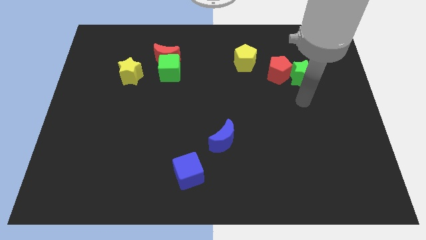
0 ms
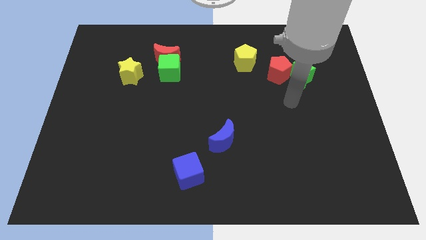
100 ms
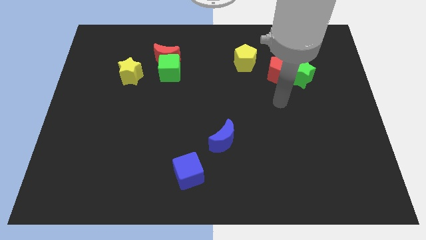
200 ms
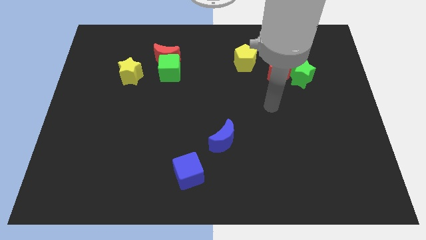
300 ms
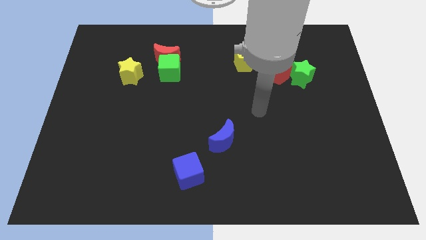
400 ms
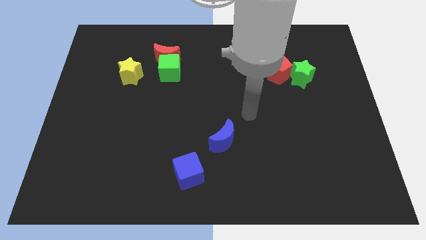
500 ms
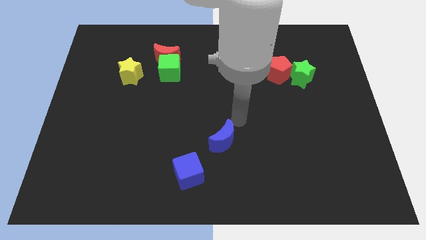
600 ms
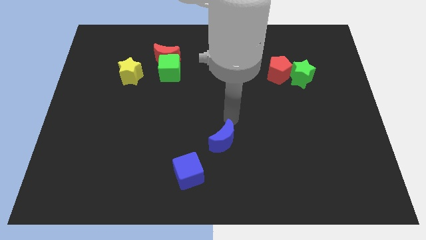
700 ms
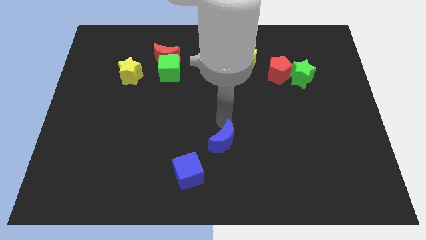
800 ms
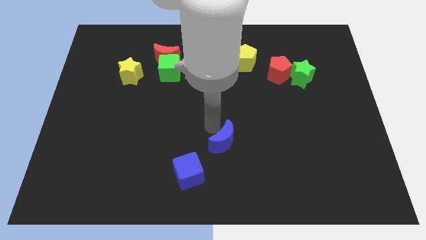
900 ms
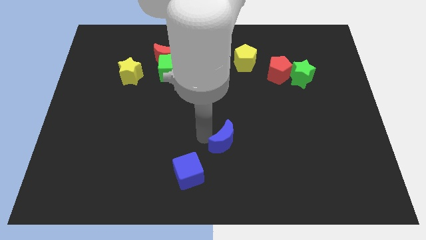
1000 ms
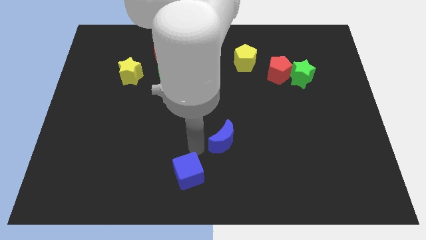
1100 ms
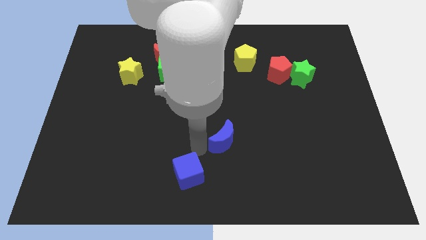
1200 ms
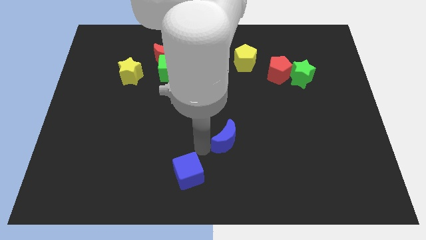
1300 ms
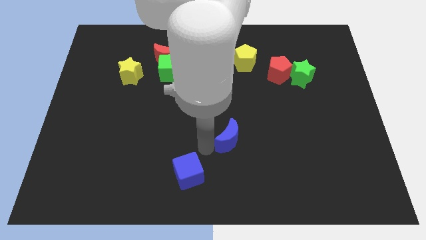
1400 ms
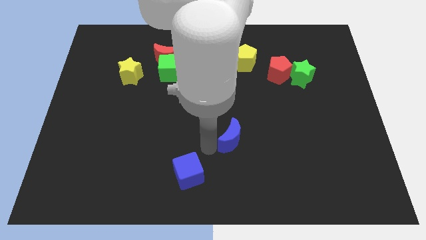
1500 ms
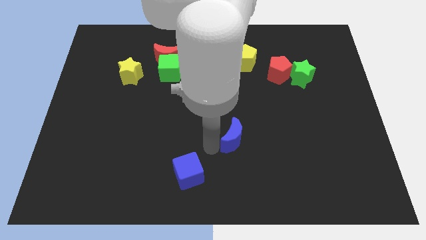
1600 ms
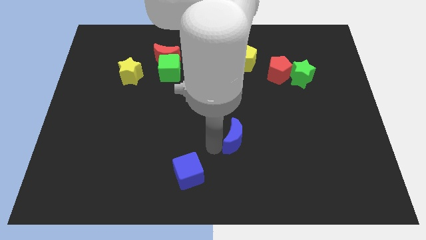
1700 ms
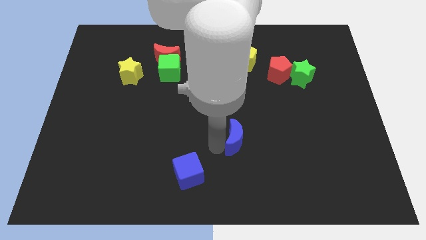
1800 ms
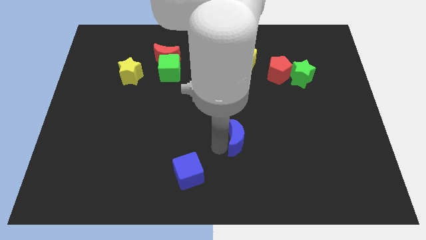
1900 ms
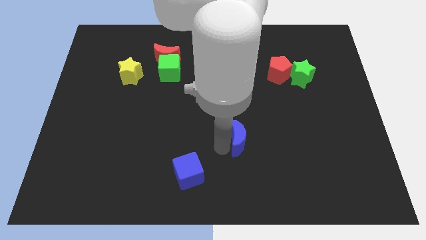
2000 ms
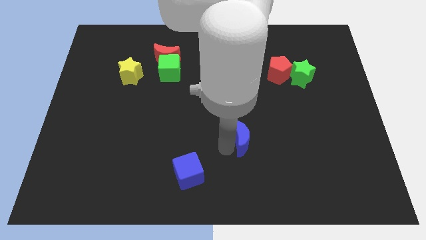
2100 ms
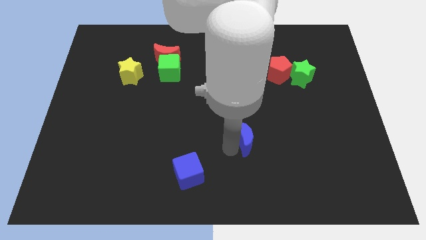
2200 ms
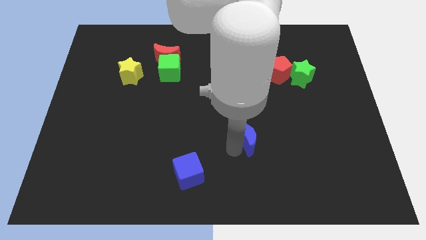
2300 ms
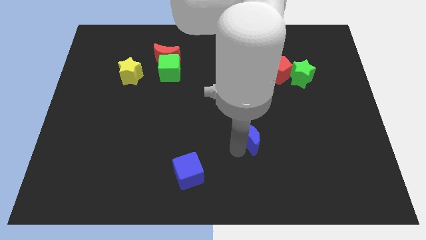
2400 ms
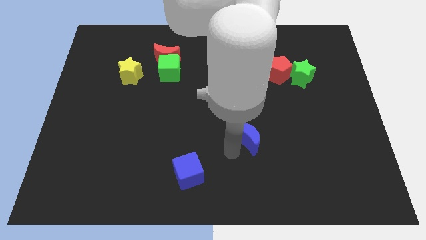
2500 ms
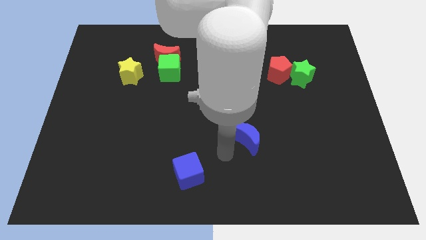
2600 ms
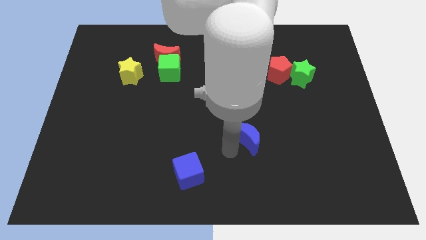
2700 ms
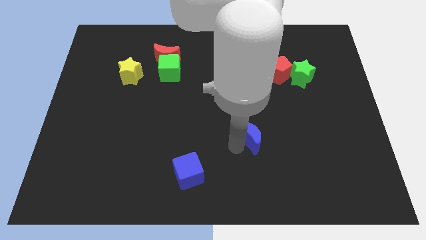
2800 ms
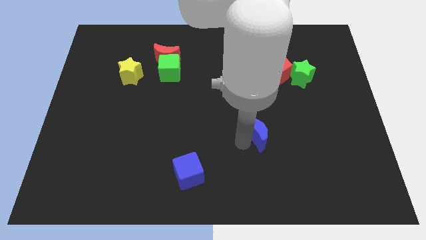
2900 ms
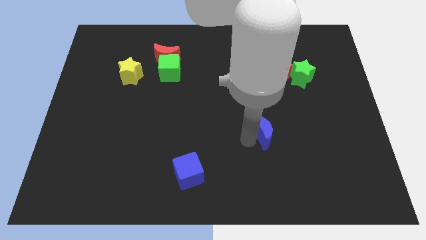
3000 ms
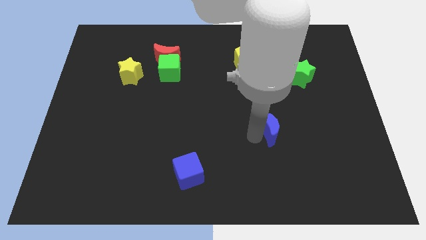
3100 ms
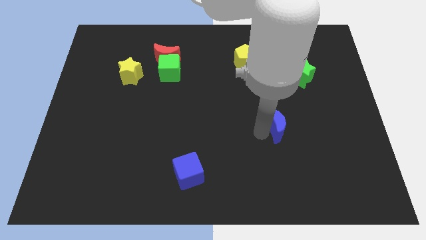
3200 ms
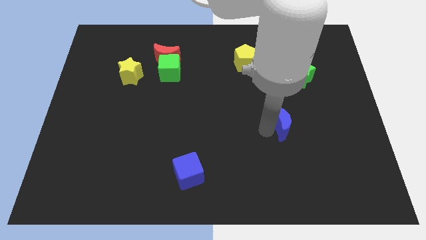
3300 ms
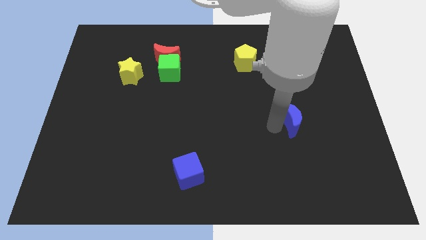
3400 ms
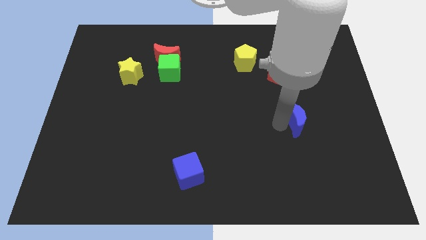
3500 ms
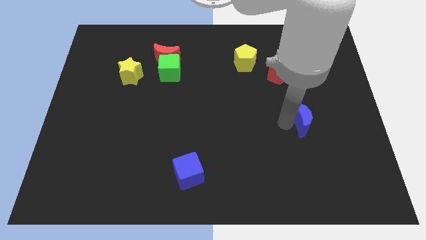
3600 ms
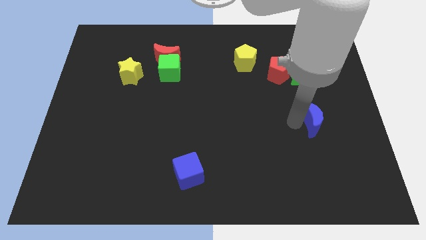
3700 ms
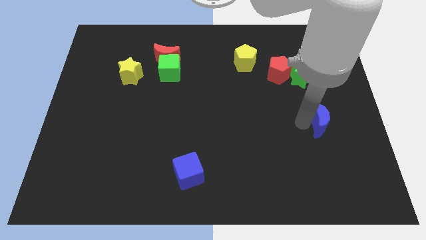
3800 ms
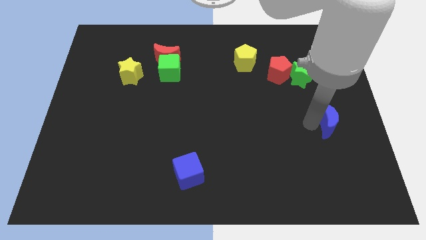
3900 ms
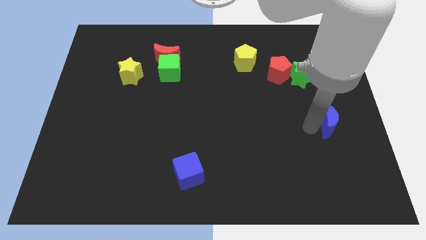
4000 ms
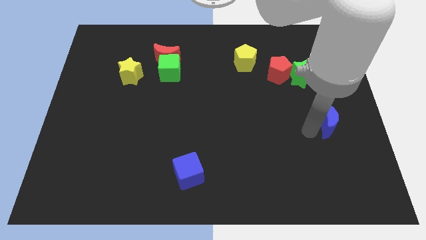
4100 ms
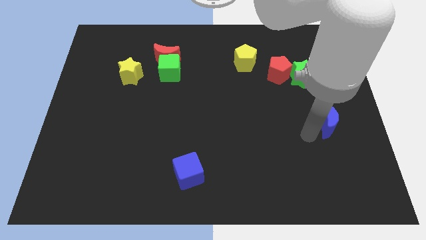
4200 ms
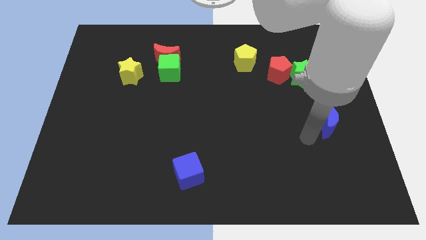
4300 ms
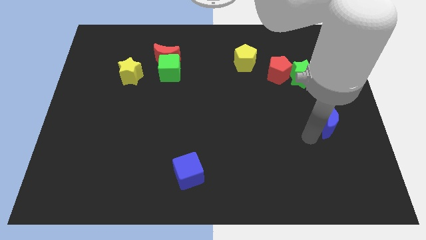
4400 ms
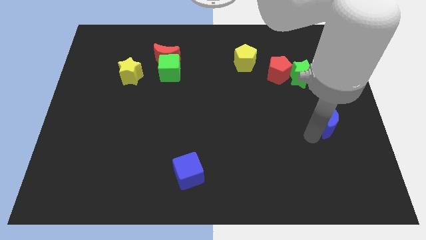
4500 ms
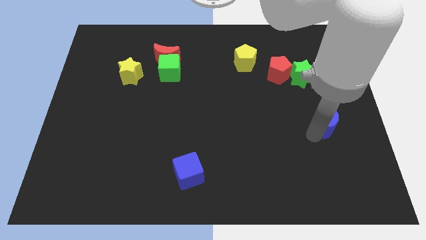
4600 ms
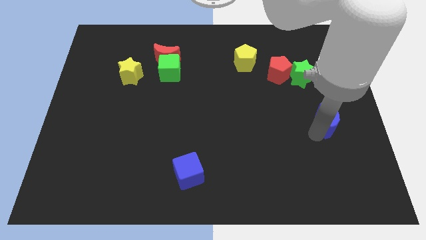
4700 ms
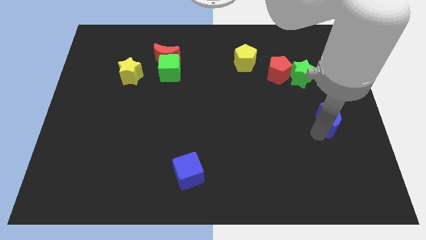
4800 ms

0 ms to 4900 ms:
move the blue moon to the right side

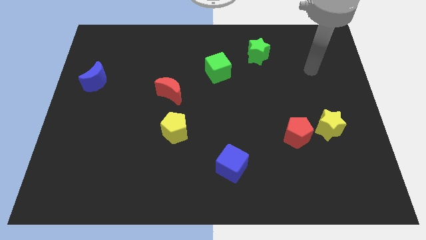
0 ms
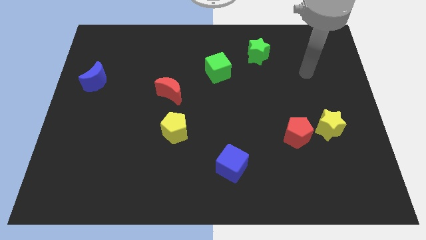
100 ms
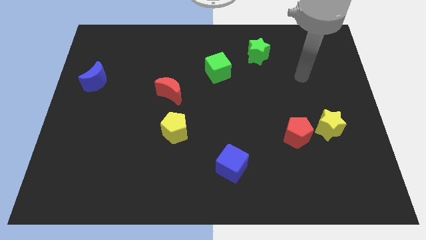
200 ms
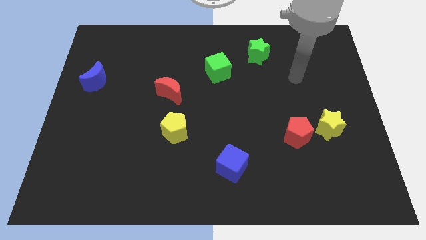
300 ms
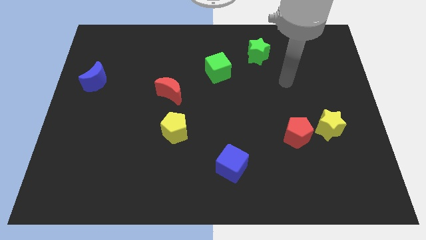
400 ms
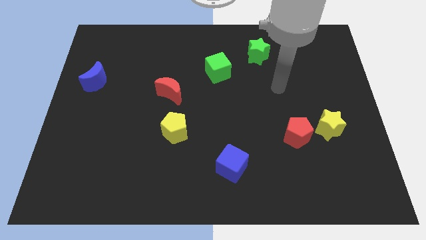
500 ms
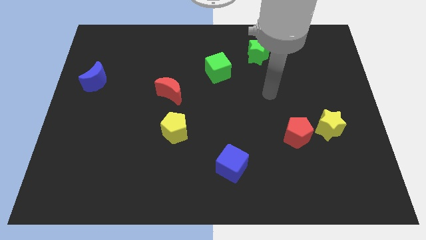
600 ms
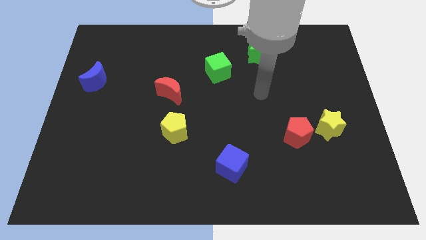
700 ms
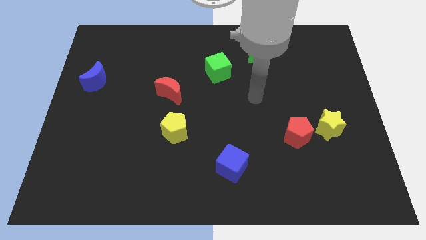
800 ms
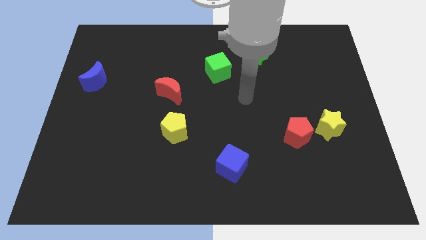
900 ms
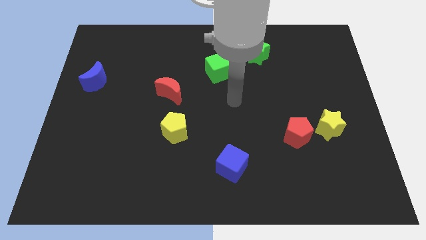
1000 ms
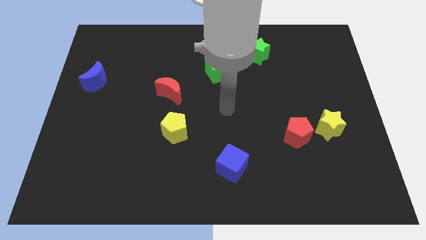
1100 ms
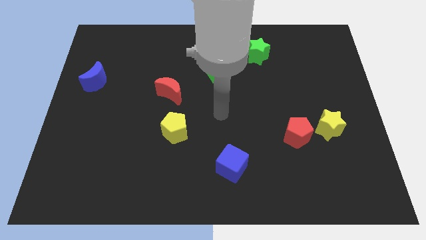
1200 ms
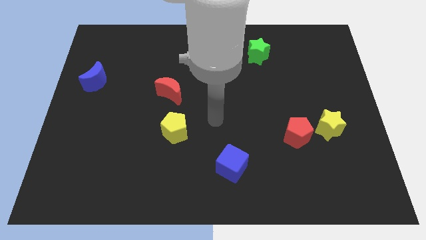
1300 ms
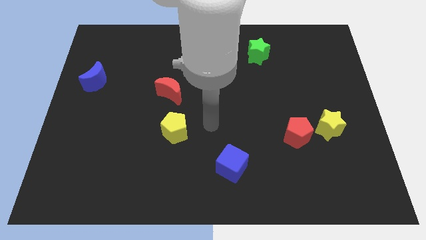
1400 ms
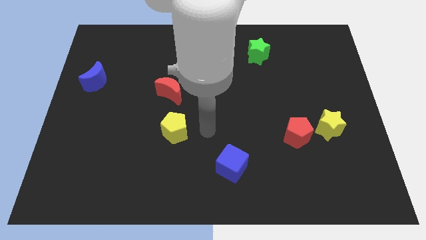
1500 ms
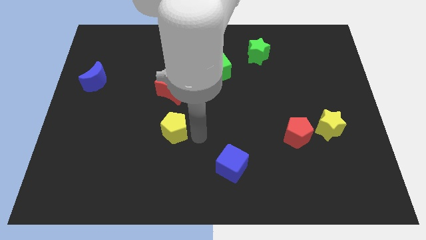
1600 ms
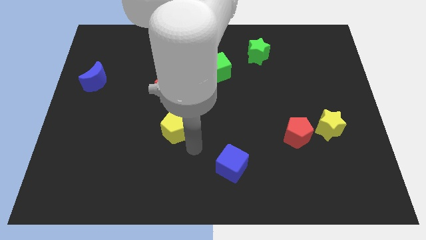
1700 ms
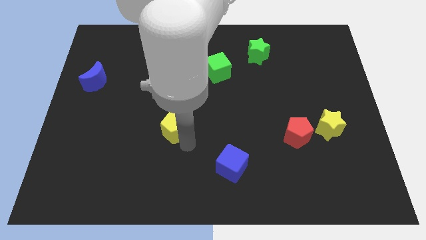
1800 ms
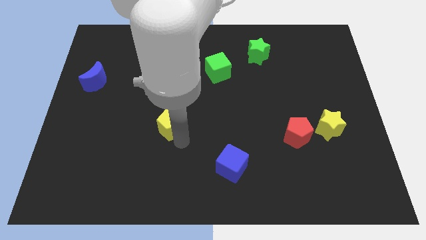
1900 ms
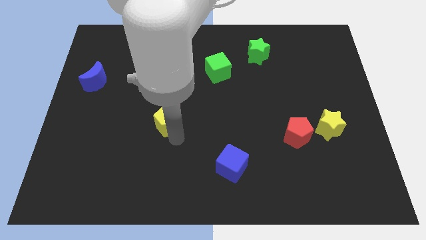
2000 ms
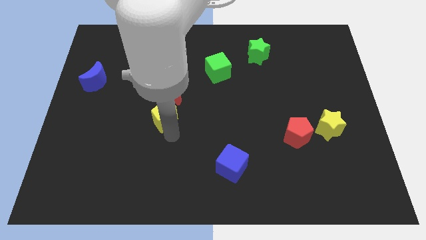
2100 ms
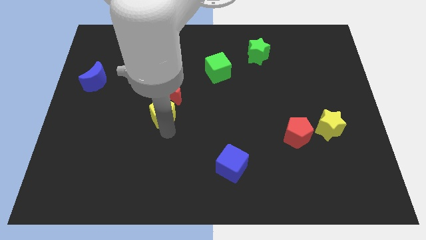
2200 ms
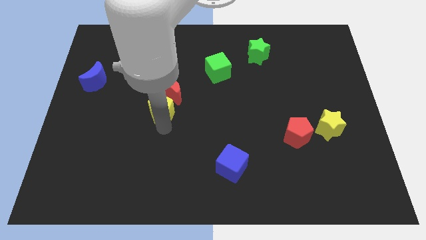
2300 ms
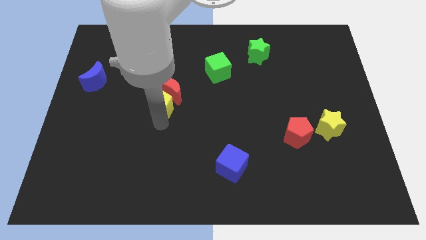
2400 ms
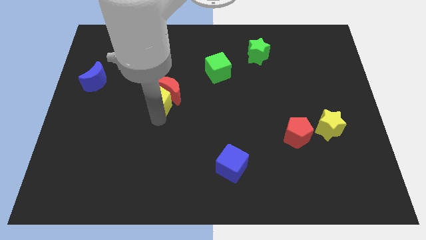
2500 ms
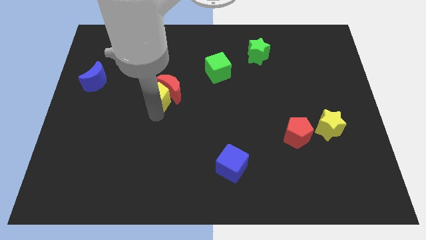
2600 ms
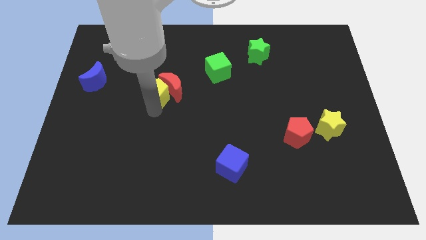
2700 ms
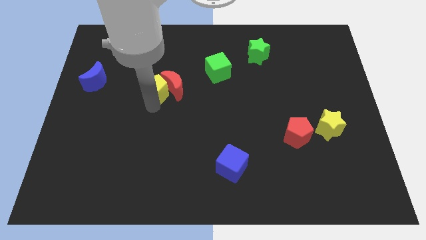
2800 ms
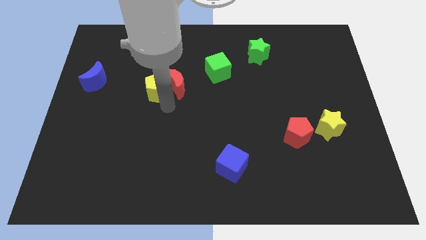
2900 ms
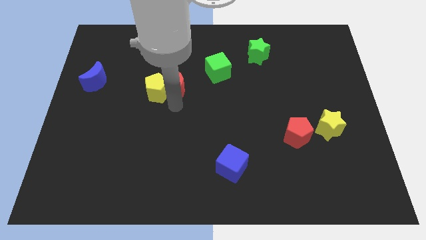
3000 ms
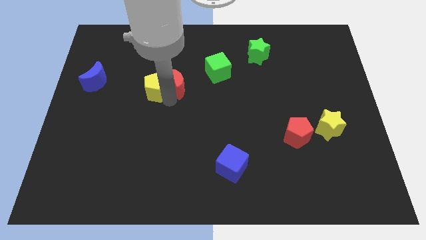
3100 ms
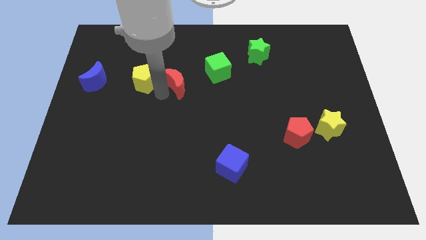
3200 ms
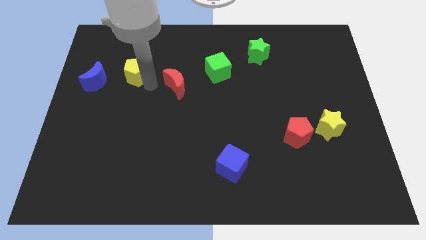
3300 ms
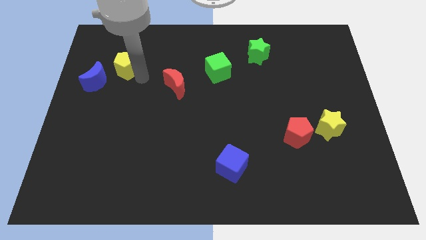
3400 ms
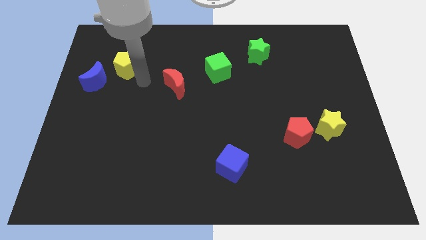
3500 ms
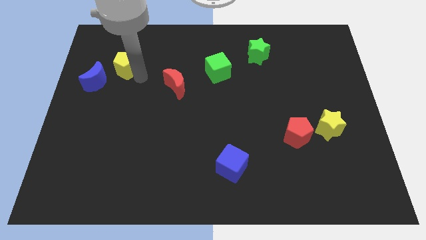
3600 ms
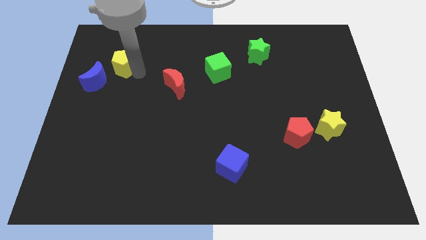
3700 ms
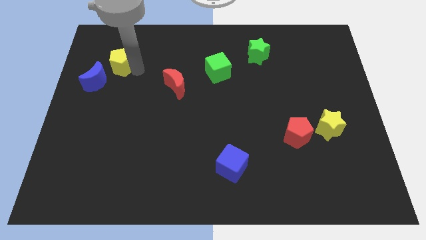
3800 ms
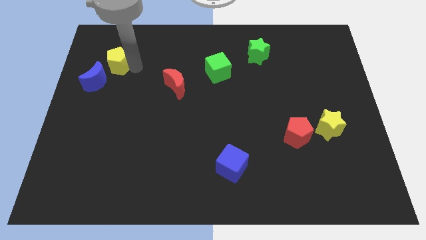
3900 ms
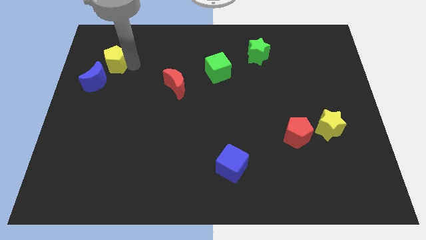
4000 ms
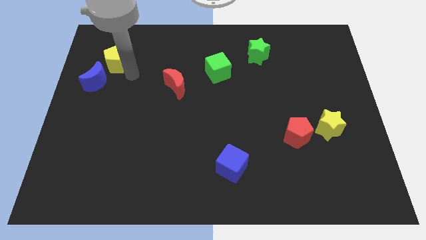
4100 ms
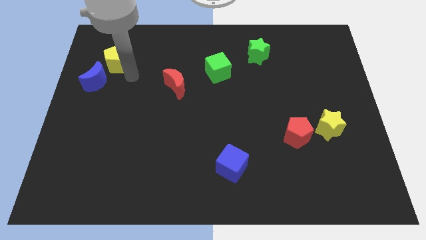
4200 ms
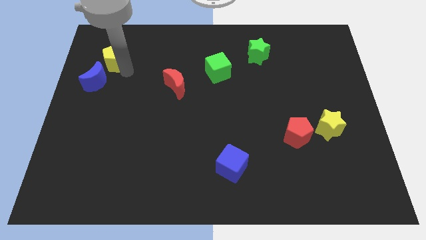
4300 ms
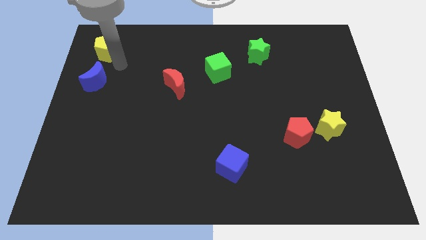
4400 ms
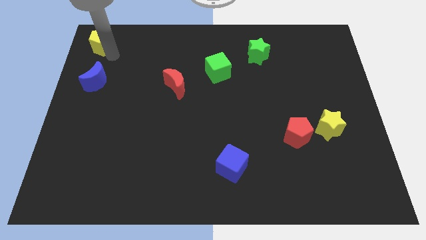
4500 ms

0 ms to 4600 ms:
slide the yellow pentagon to the upper left corner
